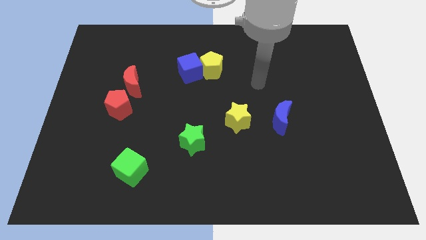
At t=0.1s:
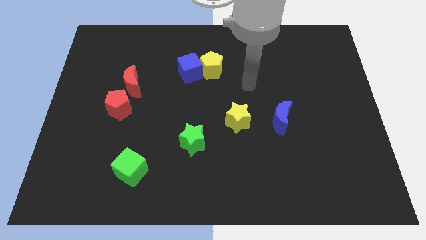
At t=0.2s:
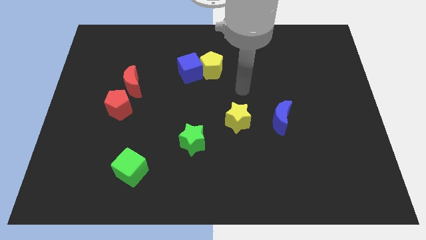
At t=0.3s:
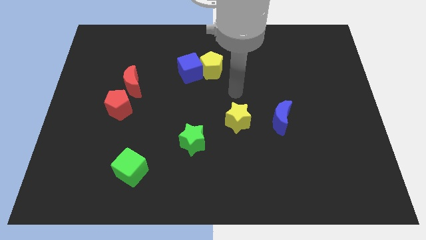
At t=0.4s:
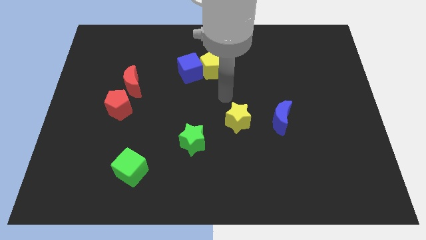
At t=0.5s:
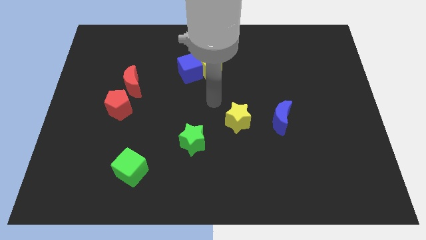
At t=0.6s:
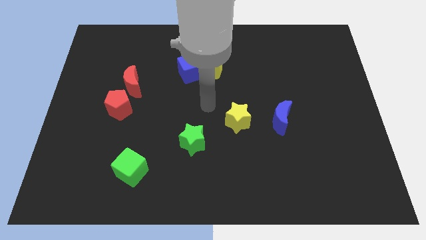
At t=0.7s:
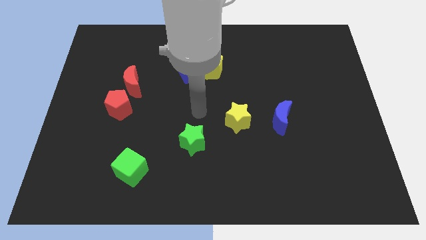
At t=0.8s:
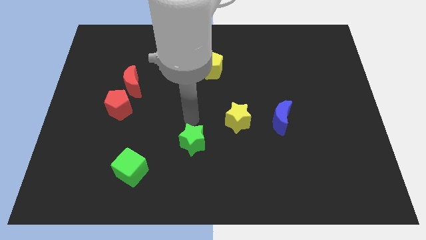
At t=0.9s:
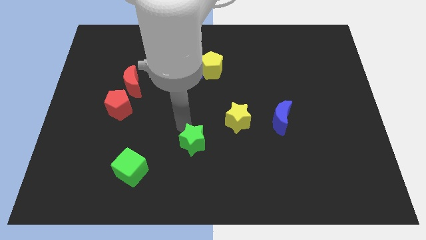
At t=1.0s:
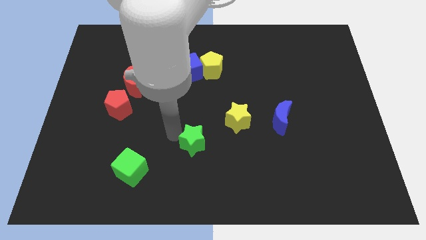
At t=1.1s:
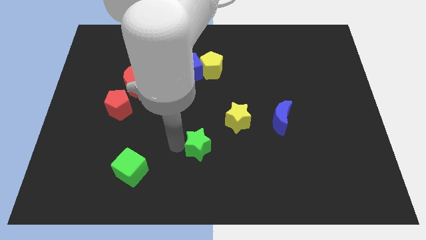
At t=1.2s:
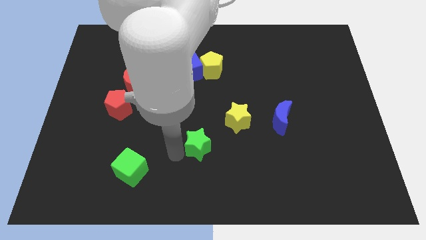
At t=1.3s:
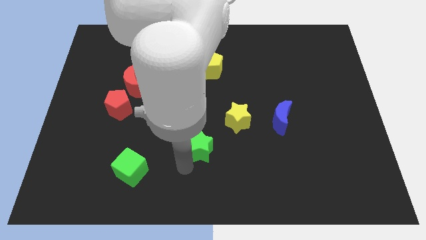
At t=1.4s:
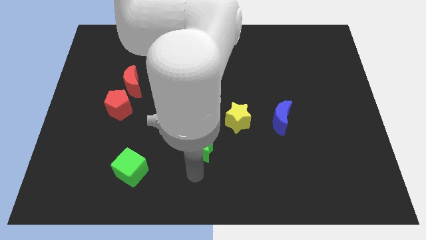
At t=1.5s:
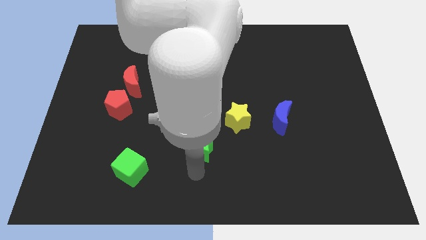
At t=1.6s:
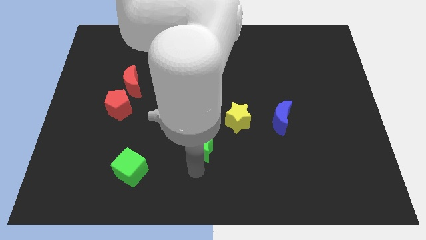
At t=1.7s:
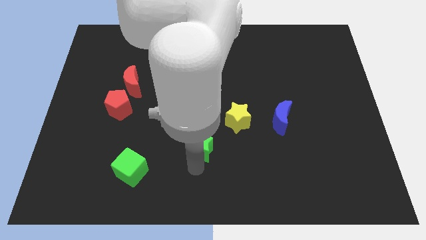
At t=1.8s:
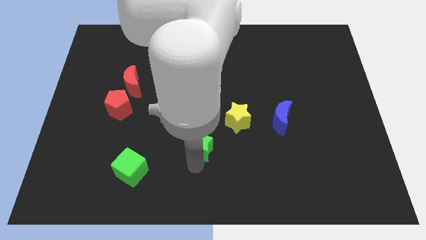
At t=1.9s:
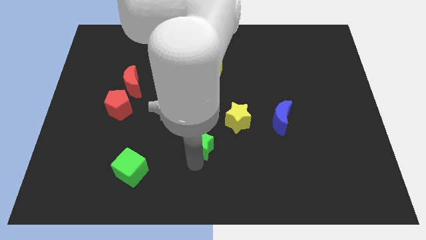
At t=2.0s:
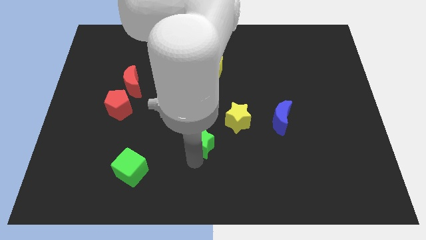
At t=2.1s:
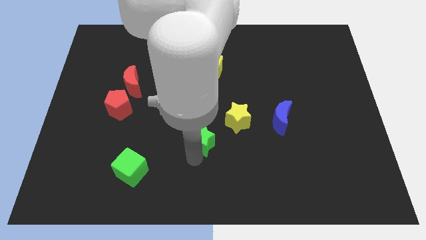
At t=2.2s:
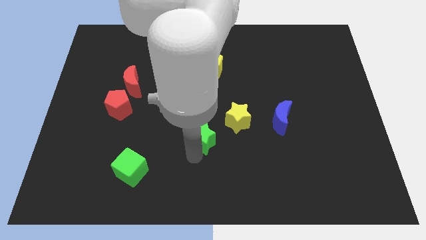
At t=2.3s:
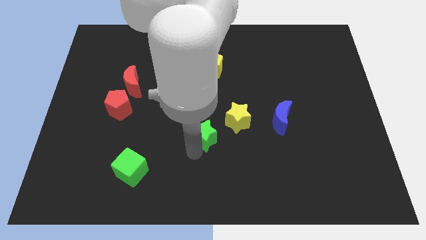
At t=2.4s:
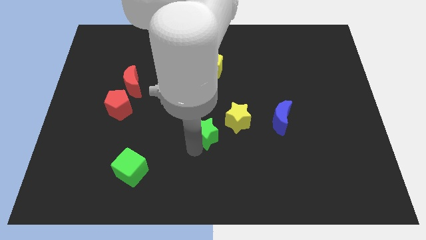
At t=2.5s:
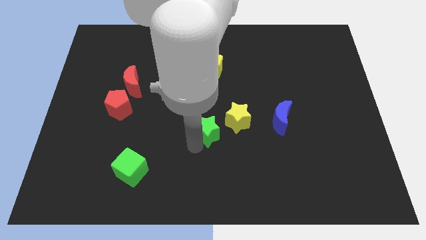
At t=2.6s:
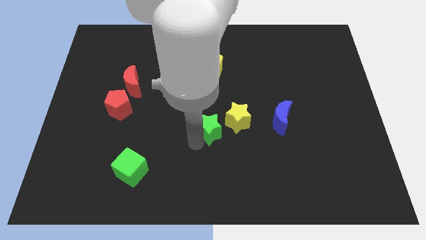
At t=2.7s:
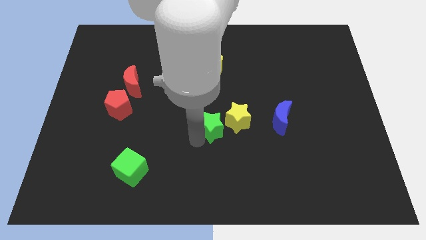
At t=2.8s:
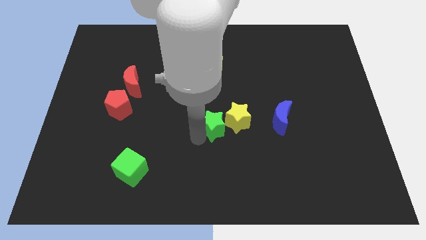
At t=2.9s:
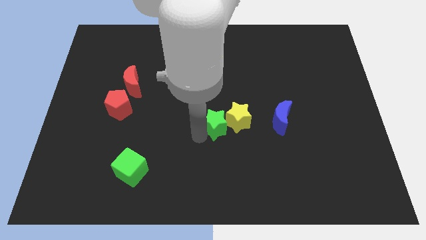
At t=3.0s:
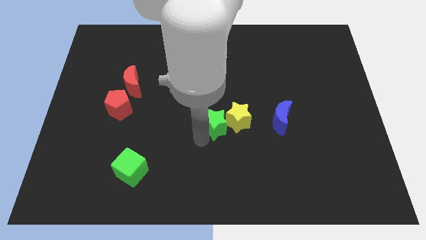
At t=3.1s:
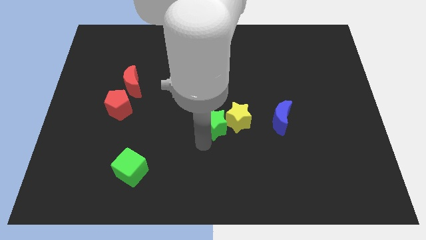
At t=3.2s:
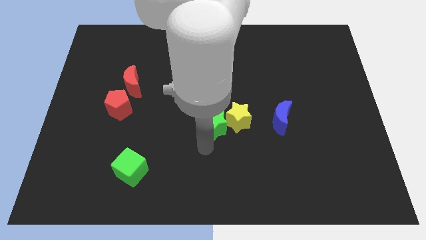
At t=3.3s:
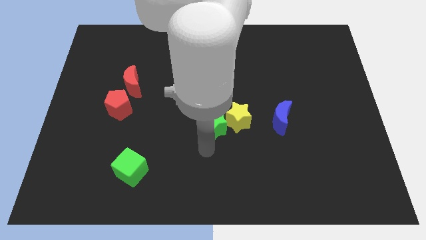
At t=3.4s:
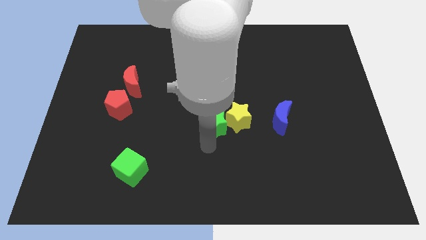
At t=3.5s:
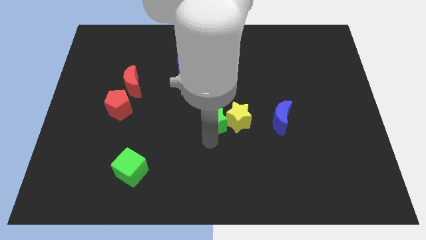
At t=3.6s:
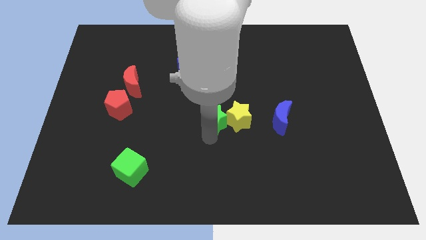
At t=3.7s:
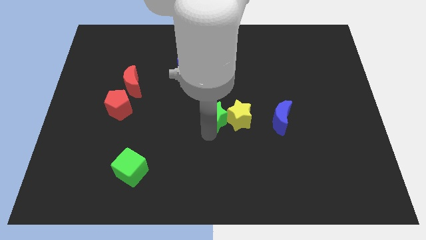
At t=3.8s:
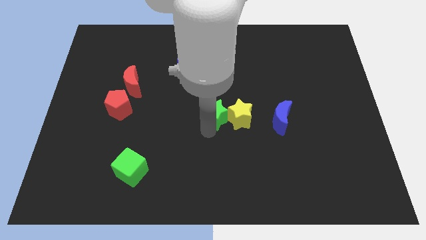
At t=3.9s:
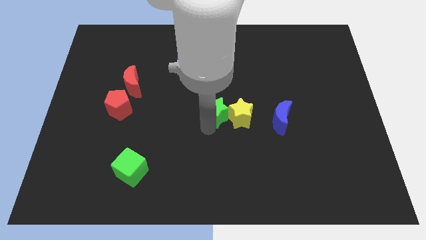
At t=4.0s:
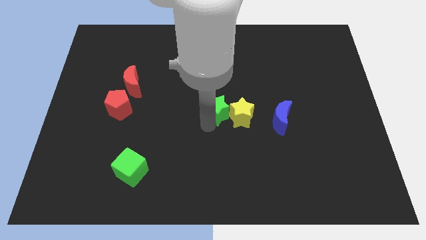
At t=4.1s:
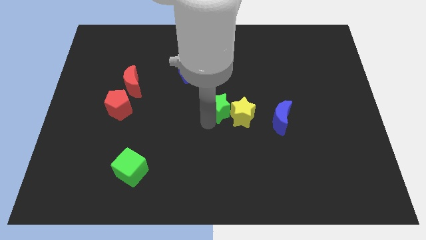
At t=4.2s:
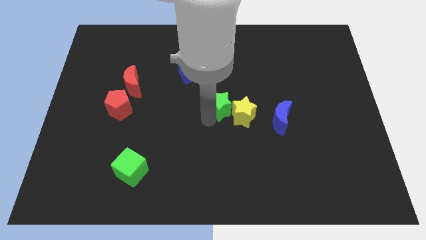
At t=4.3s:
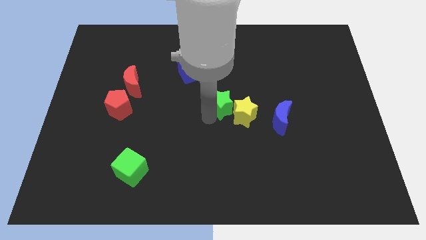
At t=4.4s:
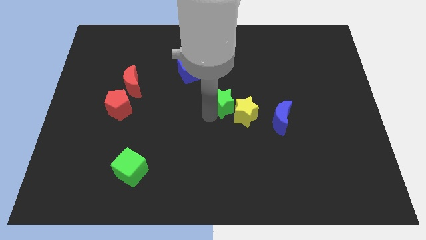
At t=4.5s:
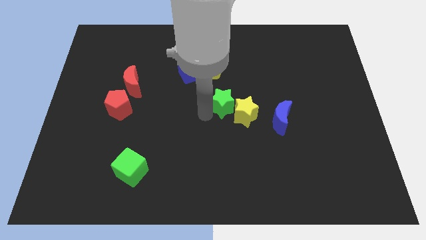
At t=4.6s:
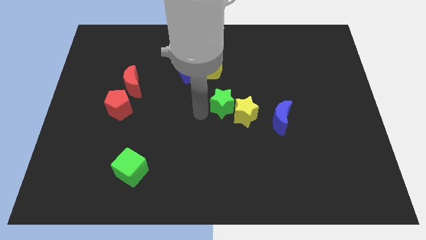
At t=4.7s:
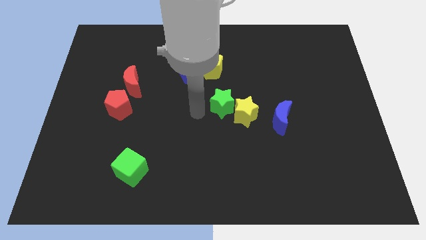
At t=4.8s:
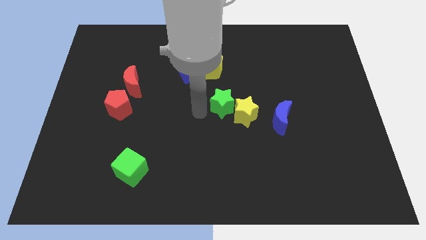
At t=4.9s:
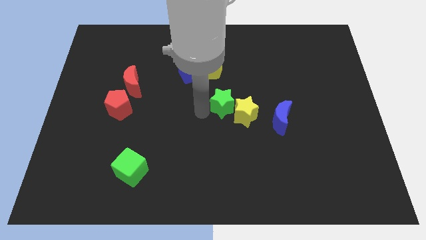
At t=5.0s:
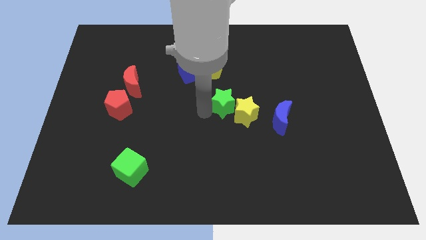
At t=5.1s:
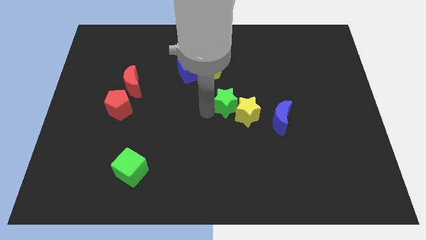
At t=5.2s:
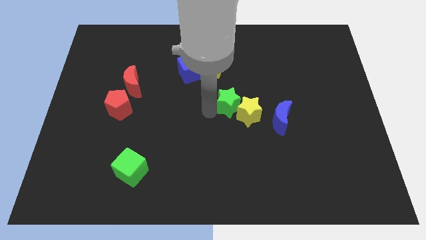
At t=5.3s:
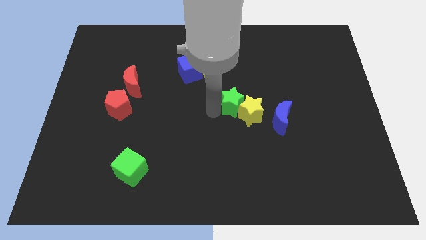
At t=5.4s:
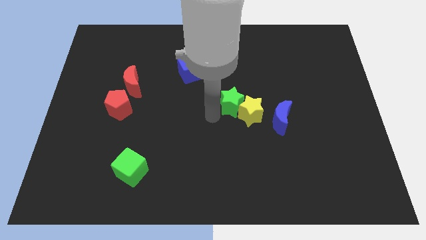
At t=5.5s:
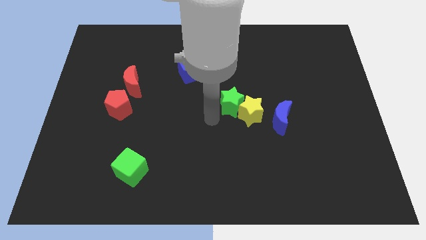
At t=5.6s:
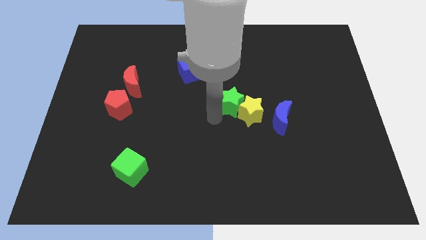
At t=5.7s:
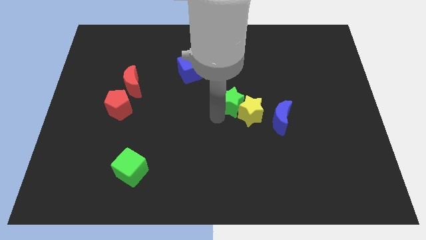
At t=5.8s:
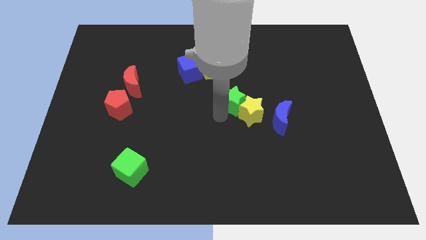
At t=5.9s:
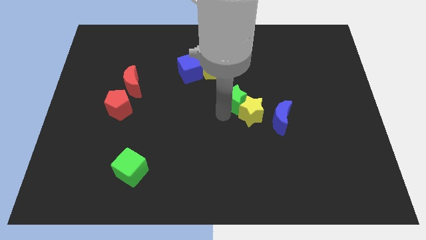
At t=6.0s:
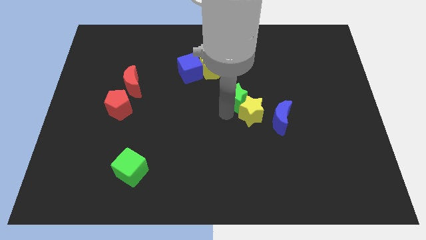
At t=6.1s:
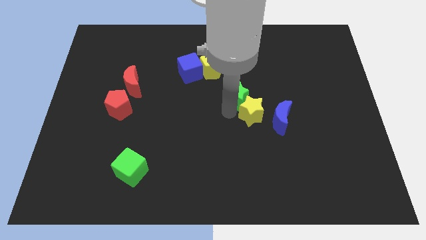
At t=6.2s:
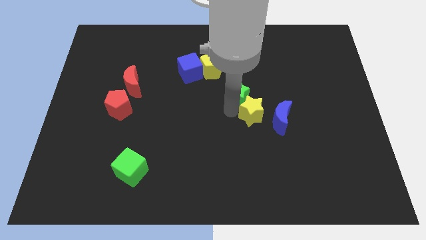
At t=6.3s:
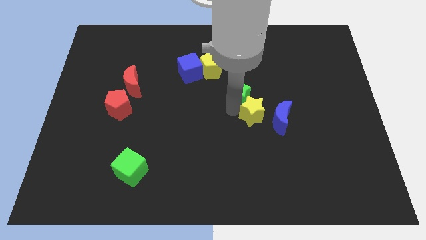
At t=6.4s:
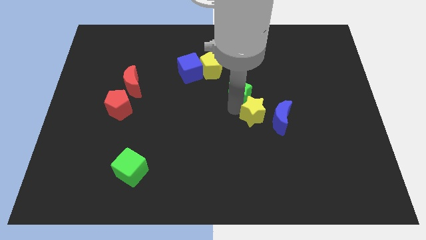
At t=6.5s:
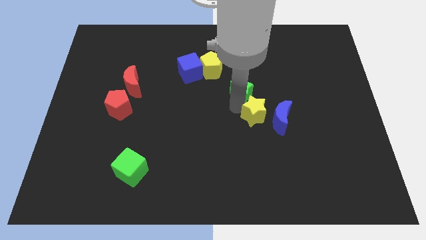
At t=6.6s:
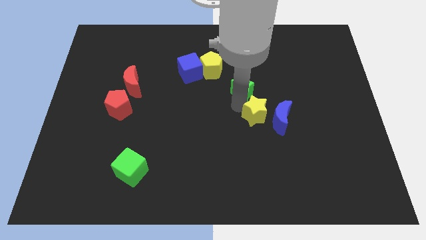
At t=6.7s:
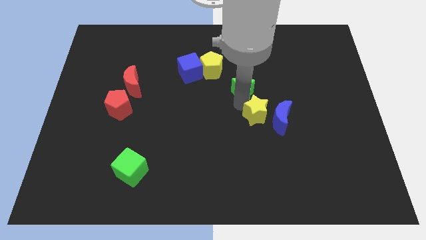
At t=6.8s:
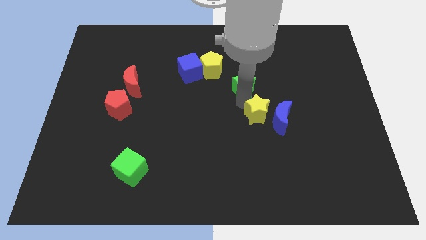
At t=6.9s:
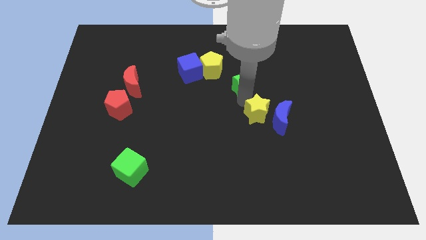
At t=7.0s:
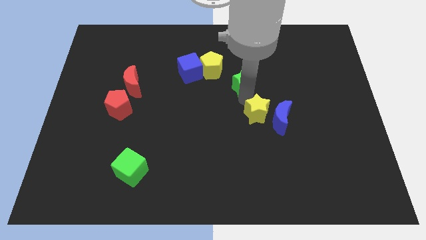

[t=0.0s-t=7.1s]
move the green star up and then to the right

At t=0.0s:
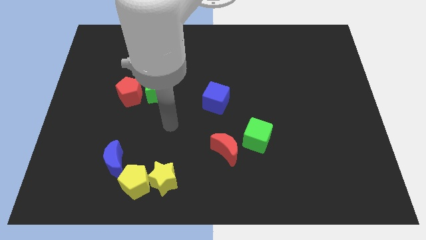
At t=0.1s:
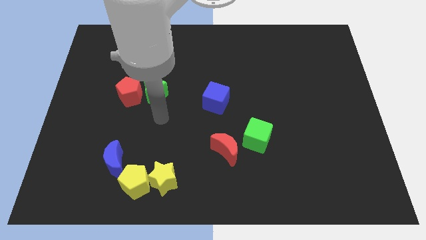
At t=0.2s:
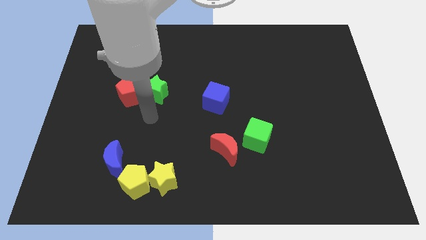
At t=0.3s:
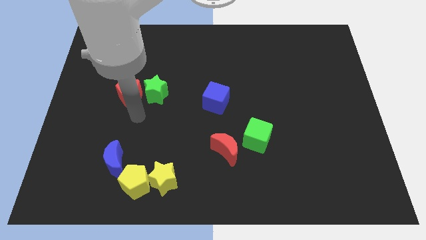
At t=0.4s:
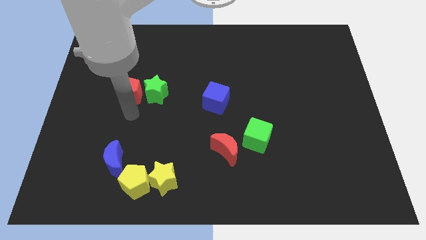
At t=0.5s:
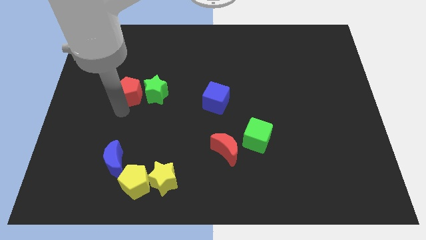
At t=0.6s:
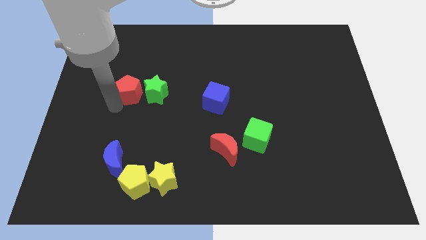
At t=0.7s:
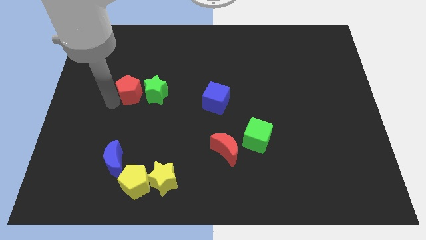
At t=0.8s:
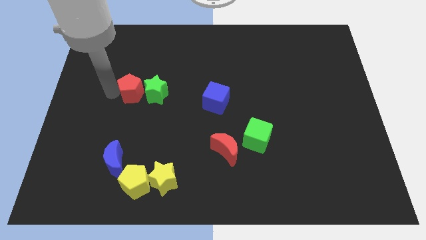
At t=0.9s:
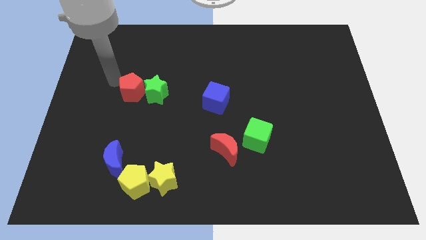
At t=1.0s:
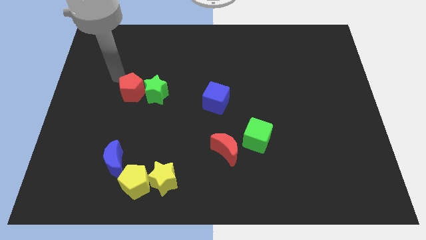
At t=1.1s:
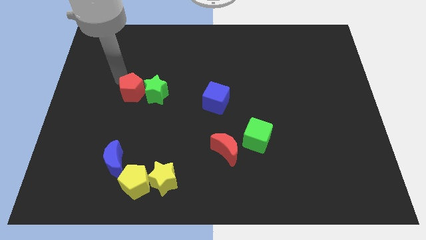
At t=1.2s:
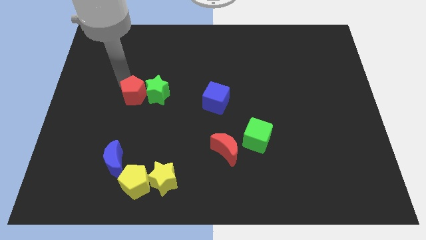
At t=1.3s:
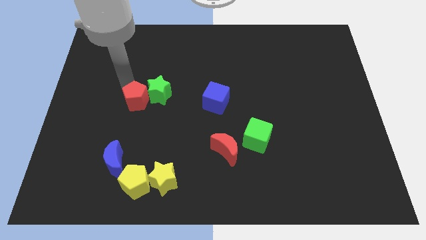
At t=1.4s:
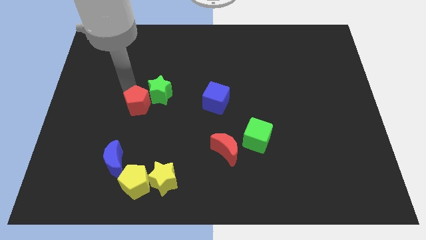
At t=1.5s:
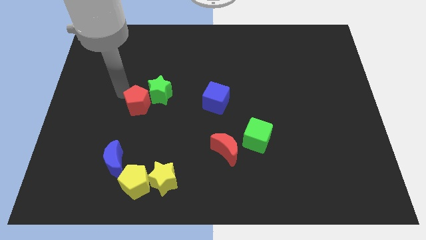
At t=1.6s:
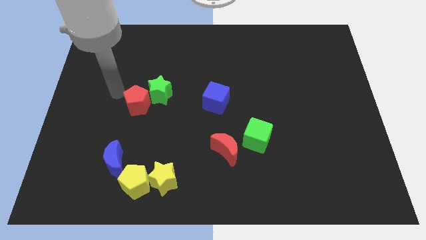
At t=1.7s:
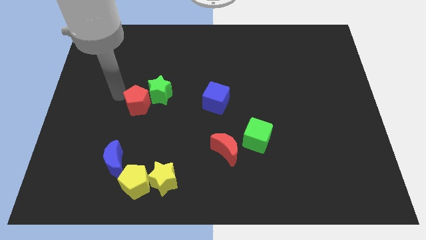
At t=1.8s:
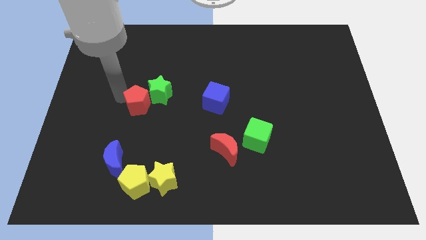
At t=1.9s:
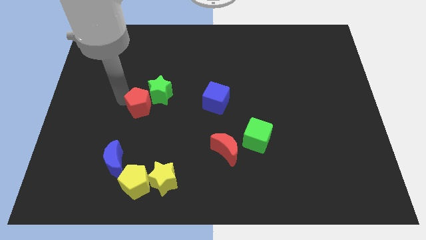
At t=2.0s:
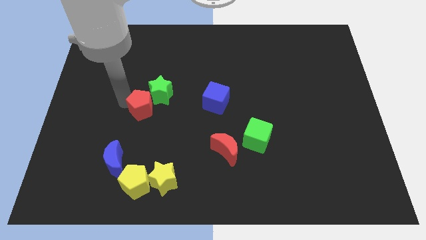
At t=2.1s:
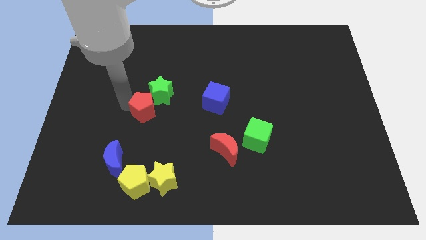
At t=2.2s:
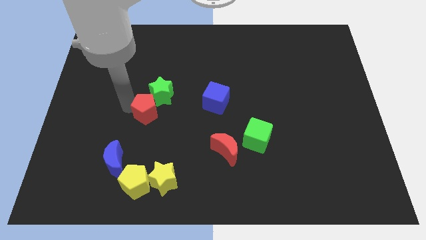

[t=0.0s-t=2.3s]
push the red pentagon diagonally down and to the right slightly
